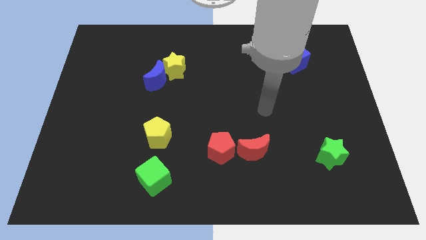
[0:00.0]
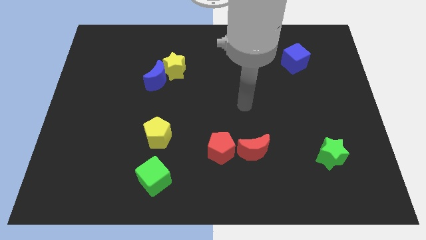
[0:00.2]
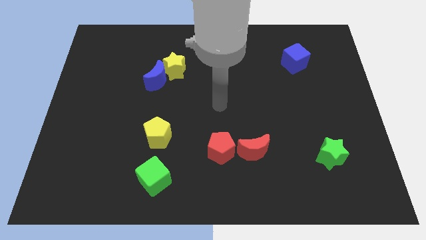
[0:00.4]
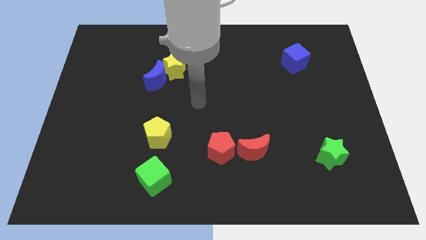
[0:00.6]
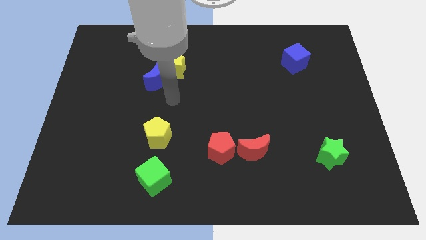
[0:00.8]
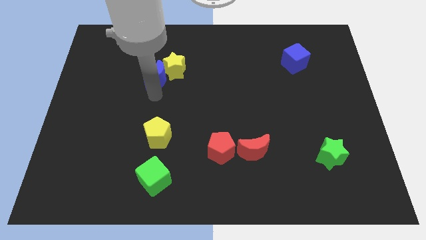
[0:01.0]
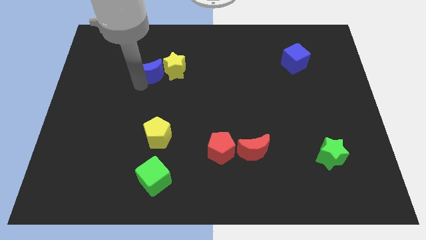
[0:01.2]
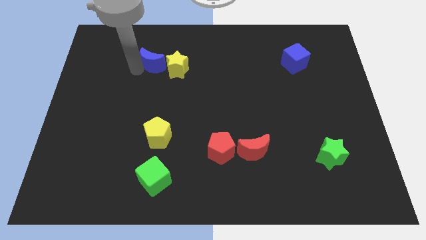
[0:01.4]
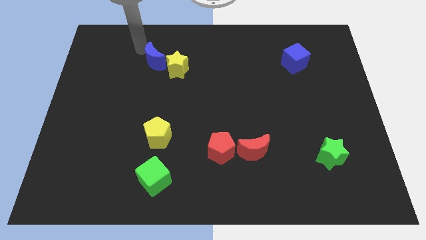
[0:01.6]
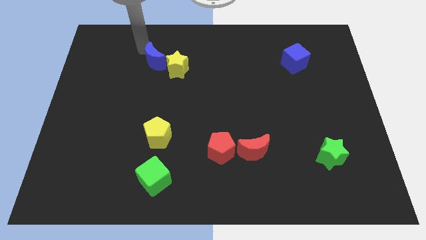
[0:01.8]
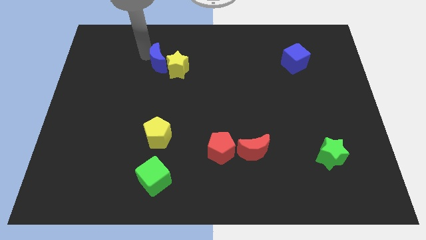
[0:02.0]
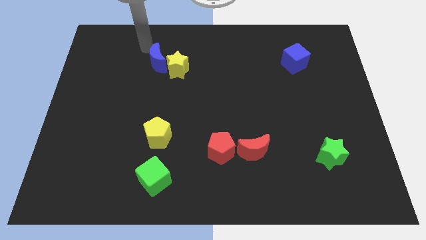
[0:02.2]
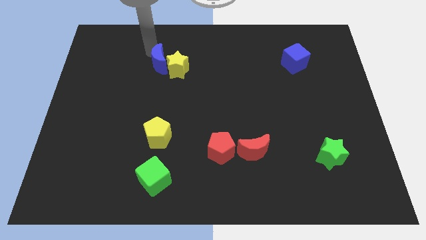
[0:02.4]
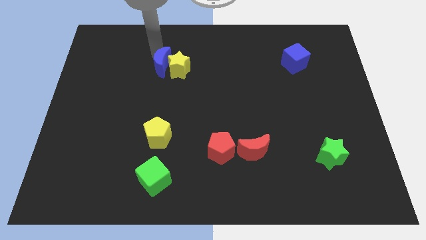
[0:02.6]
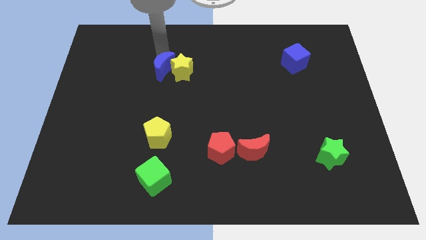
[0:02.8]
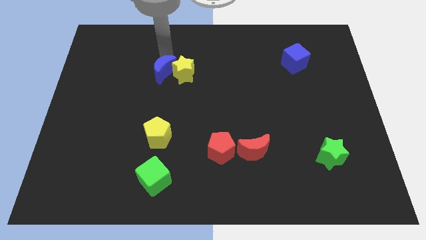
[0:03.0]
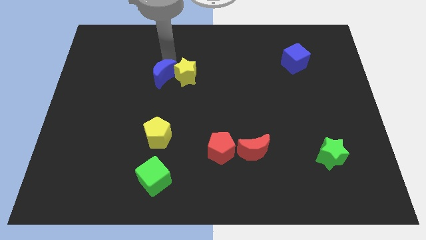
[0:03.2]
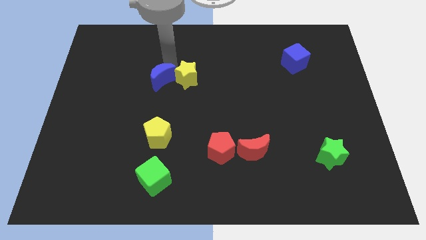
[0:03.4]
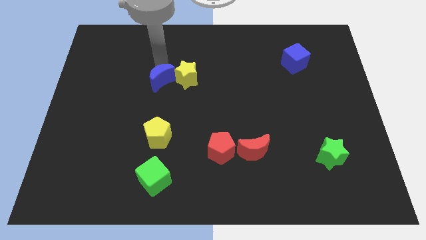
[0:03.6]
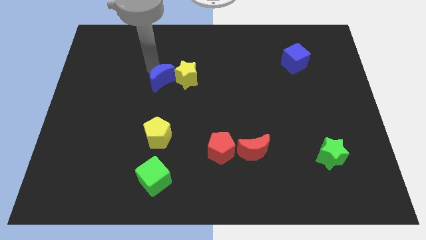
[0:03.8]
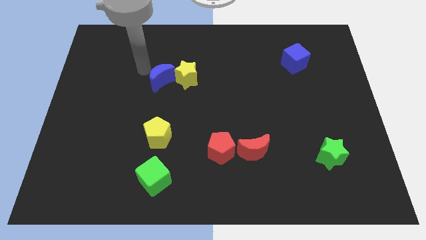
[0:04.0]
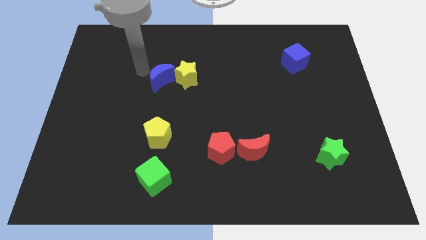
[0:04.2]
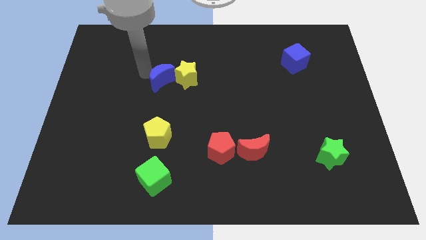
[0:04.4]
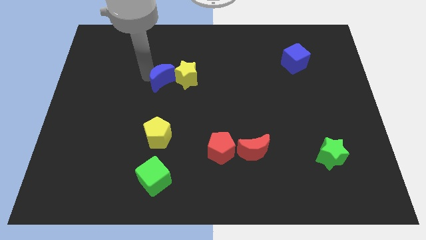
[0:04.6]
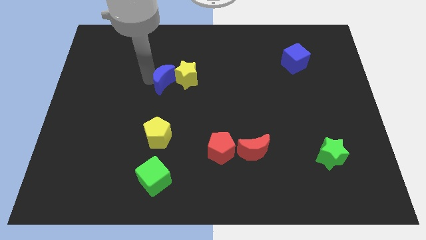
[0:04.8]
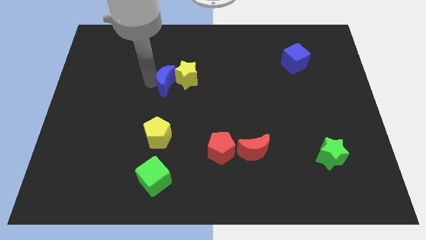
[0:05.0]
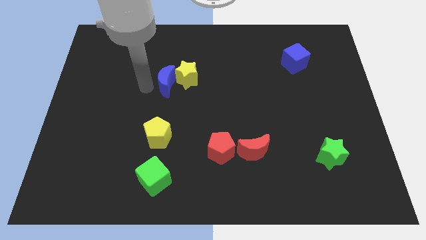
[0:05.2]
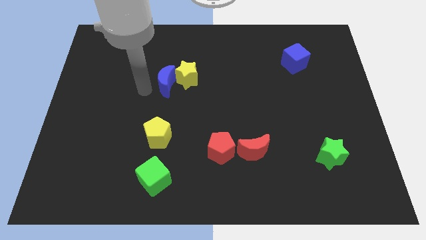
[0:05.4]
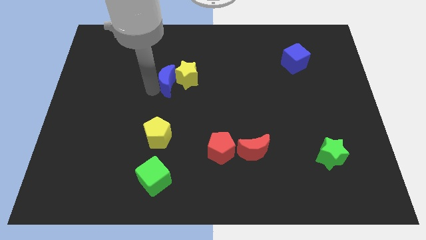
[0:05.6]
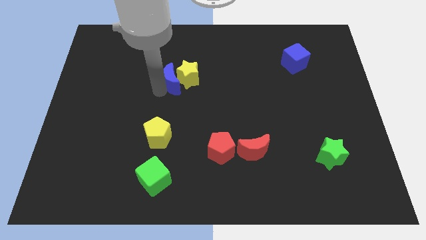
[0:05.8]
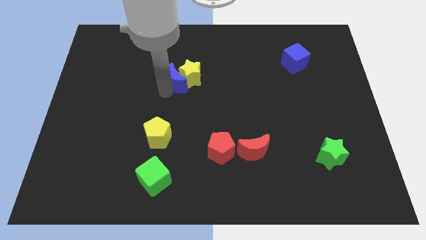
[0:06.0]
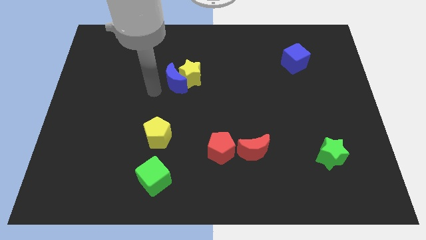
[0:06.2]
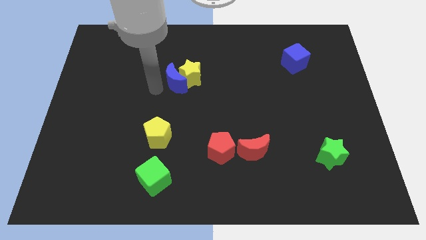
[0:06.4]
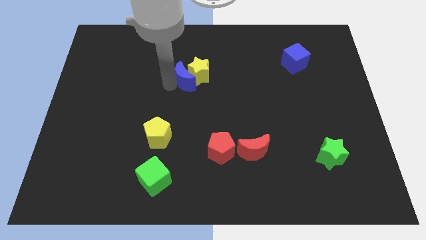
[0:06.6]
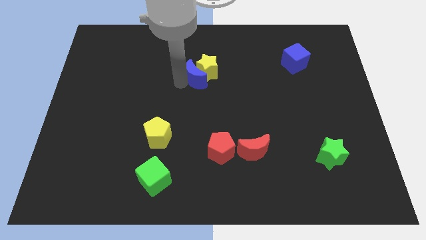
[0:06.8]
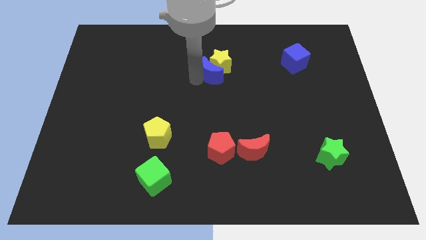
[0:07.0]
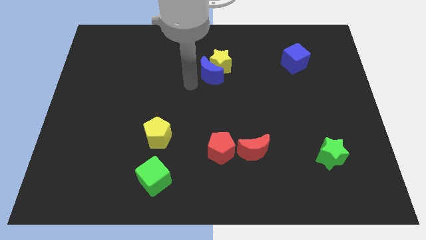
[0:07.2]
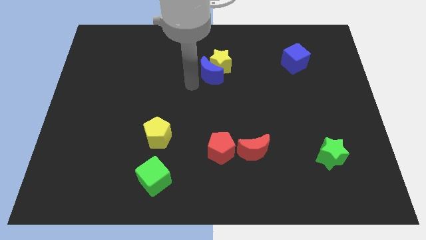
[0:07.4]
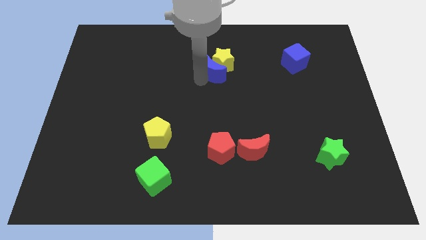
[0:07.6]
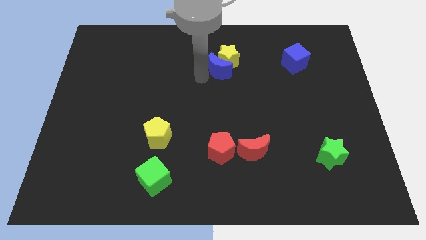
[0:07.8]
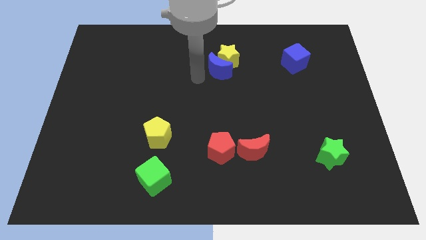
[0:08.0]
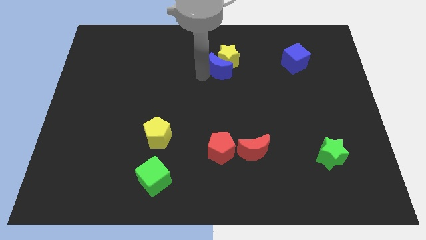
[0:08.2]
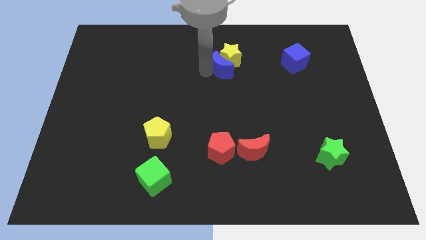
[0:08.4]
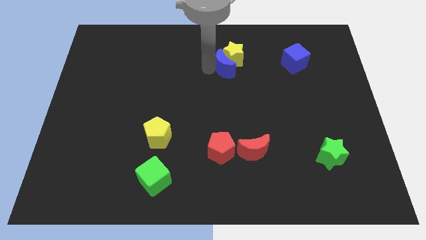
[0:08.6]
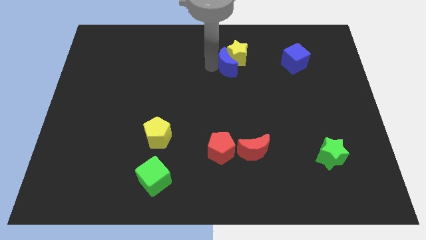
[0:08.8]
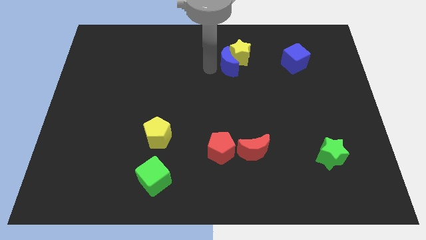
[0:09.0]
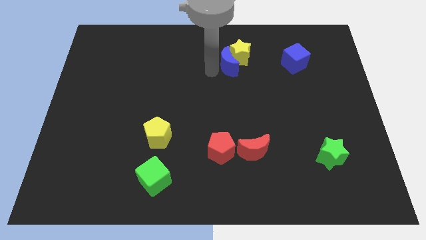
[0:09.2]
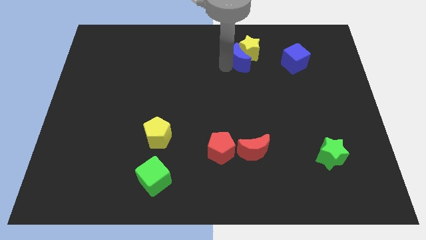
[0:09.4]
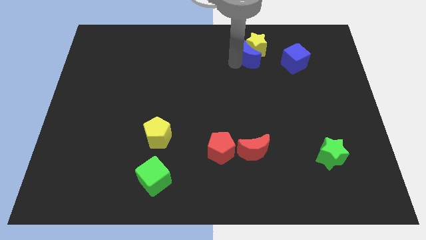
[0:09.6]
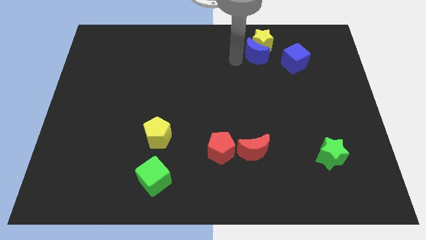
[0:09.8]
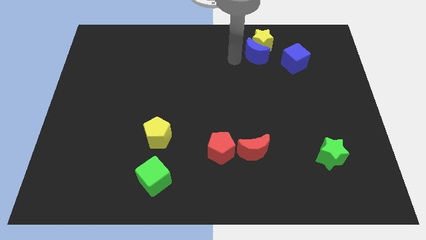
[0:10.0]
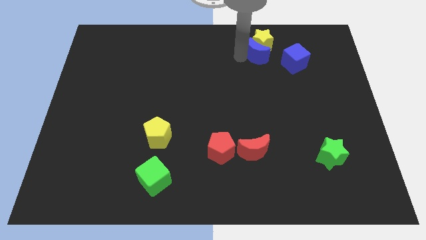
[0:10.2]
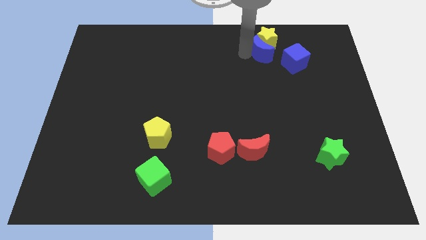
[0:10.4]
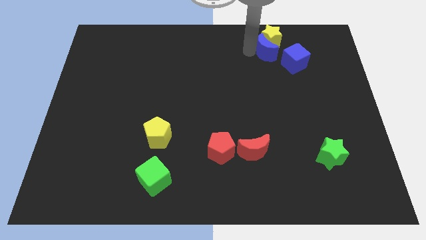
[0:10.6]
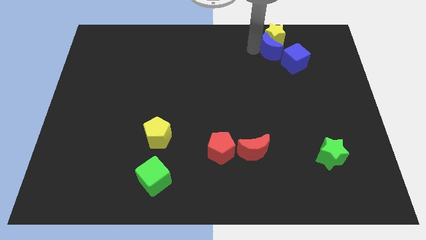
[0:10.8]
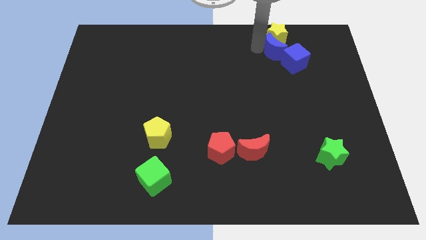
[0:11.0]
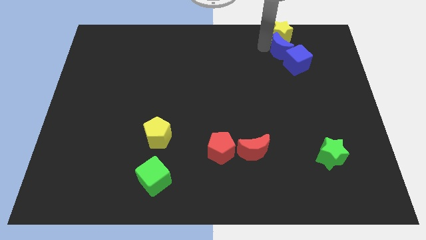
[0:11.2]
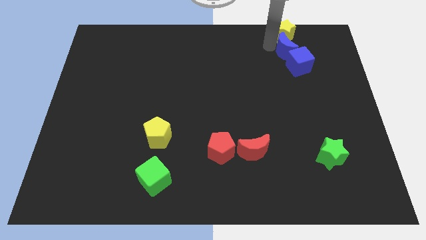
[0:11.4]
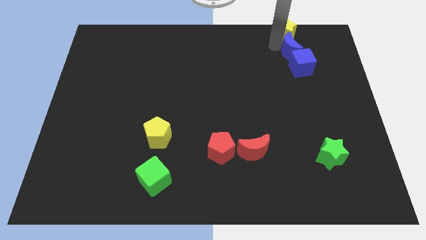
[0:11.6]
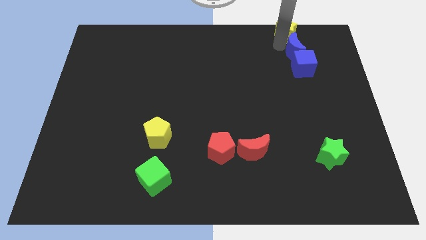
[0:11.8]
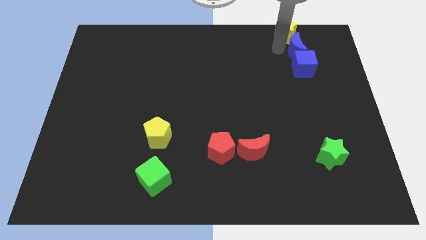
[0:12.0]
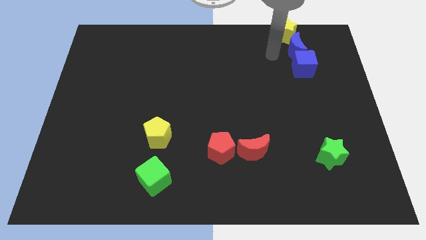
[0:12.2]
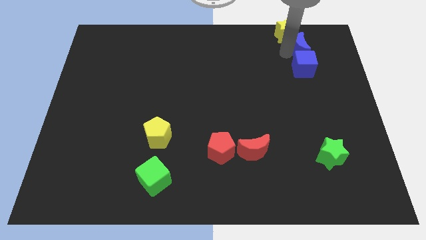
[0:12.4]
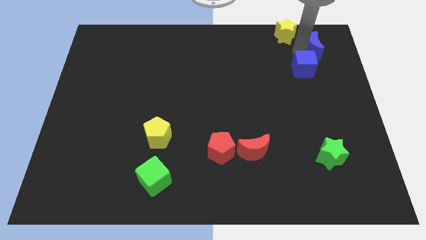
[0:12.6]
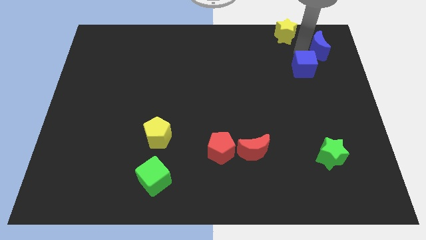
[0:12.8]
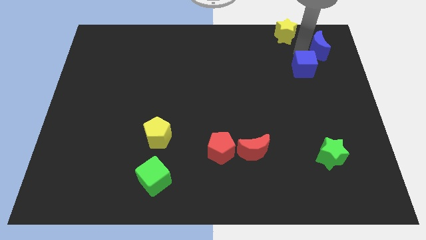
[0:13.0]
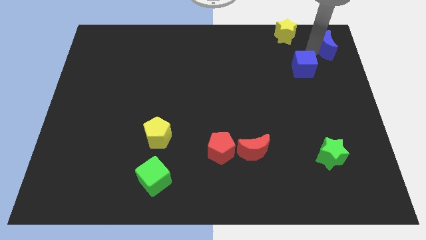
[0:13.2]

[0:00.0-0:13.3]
move the blue moon to the top right

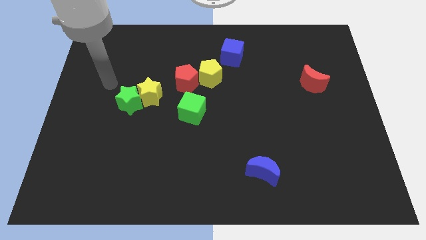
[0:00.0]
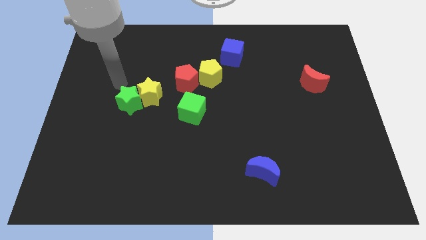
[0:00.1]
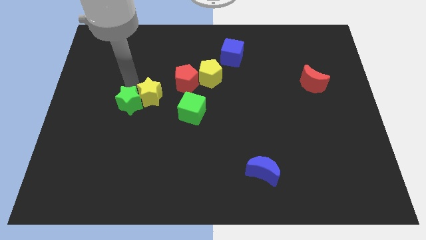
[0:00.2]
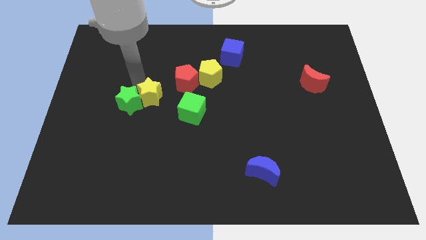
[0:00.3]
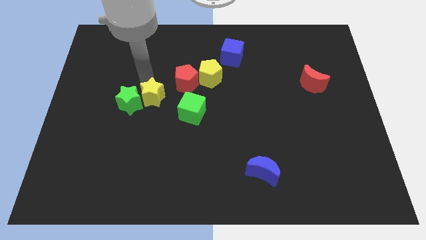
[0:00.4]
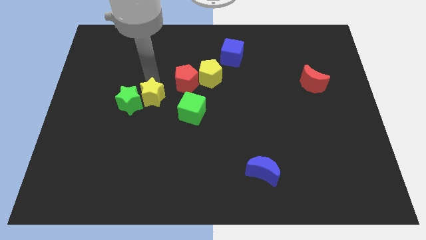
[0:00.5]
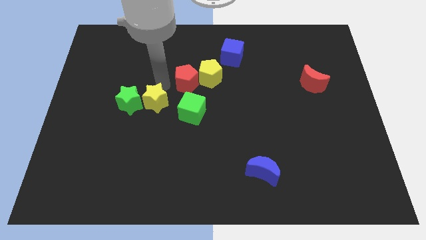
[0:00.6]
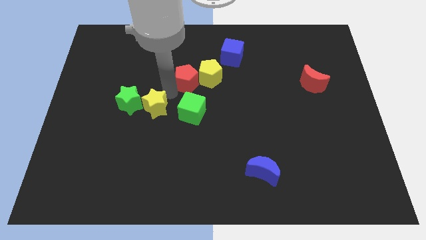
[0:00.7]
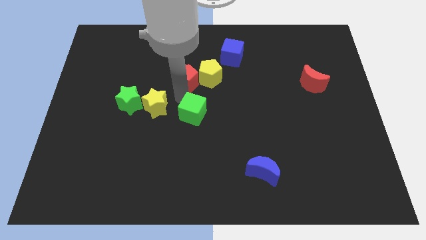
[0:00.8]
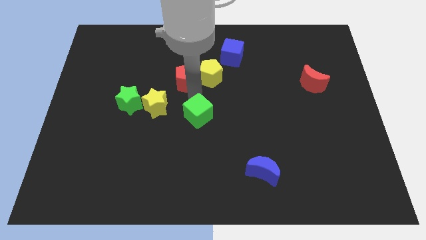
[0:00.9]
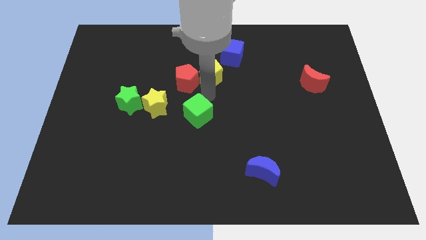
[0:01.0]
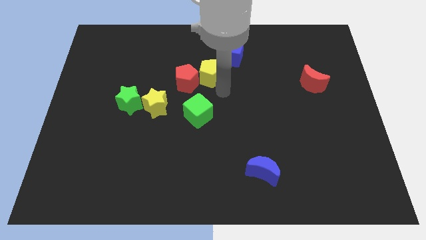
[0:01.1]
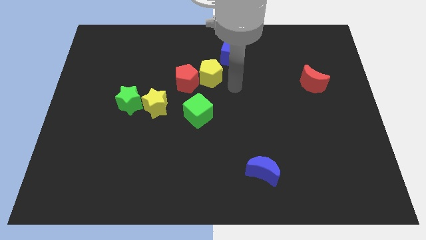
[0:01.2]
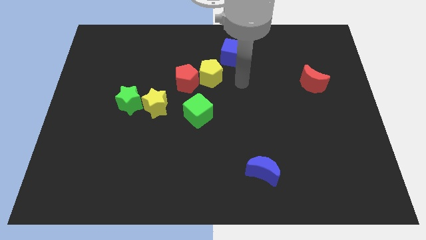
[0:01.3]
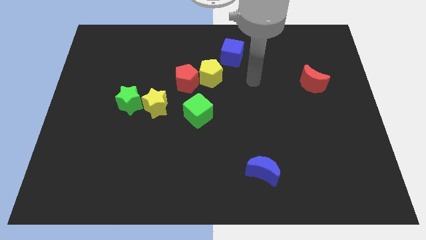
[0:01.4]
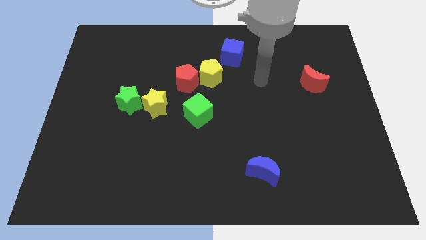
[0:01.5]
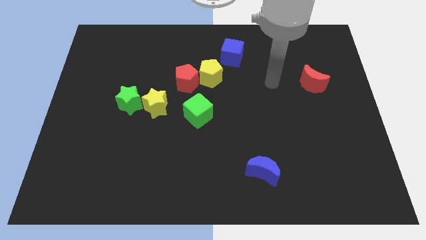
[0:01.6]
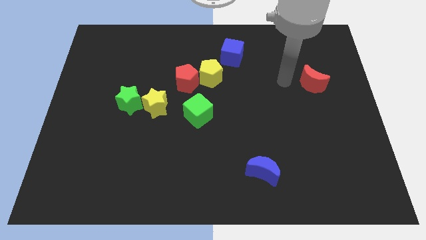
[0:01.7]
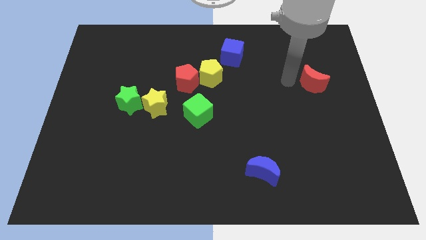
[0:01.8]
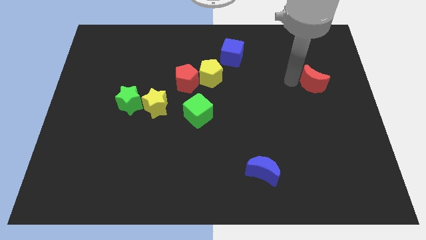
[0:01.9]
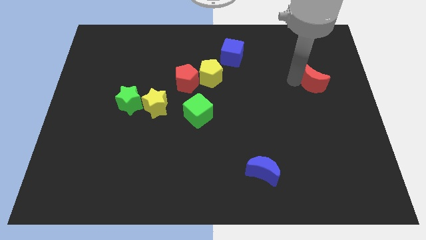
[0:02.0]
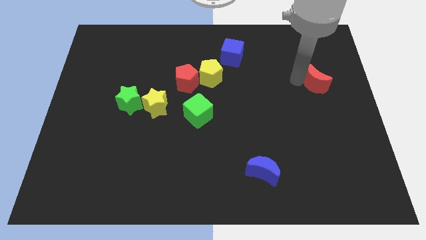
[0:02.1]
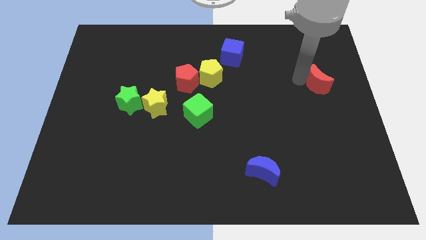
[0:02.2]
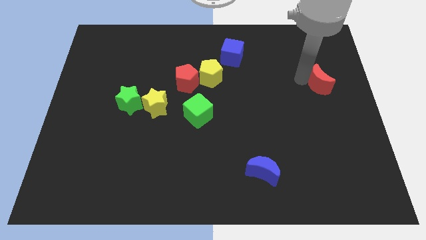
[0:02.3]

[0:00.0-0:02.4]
push the red moon to the center right
